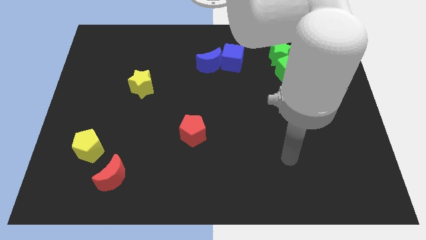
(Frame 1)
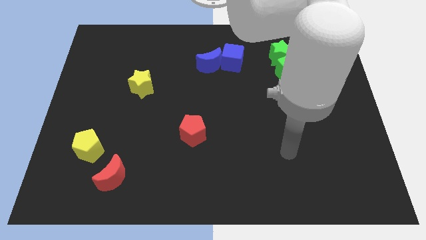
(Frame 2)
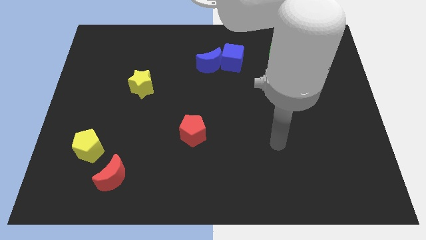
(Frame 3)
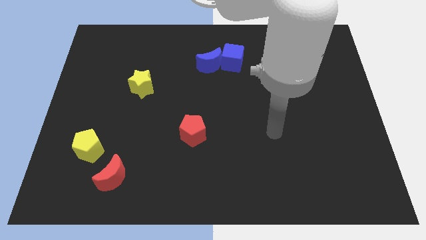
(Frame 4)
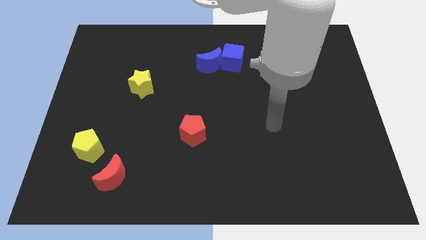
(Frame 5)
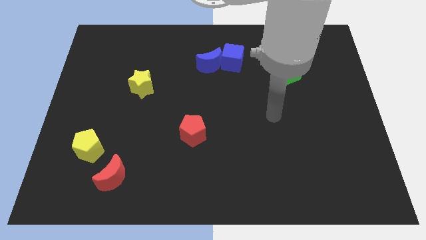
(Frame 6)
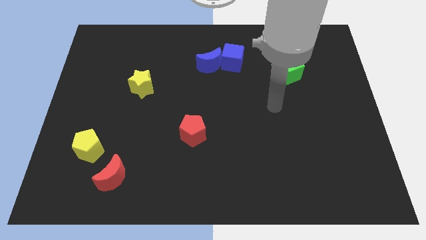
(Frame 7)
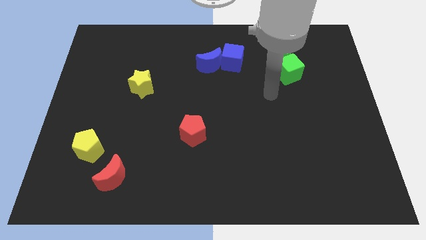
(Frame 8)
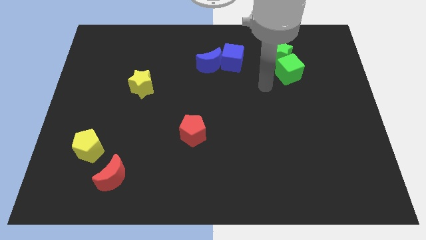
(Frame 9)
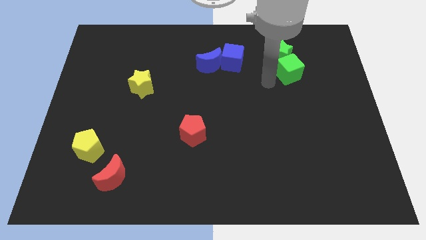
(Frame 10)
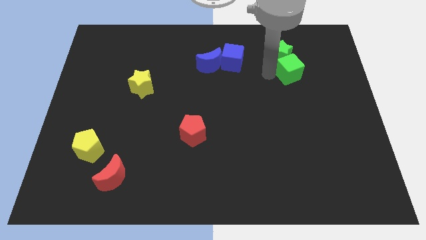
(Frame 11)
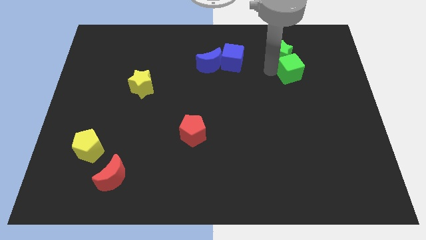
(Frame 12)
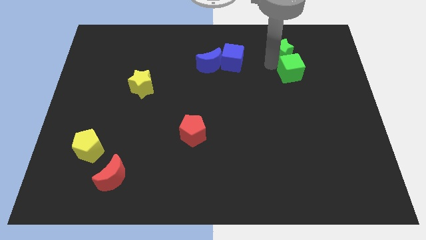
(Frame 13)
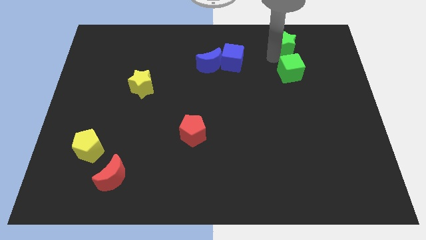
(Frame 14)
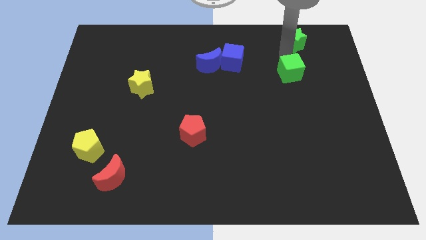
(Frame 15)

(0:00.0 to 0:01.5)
move the green cube away from the green star

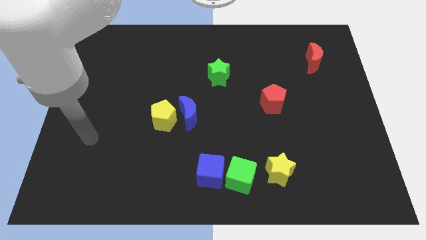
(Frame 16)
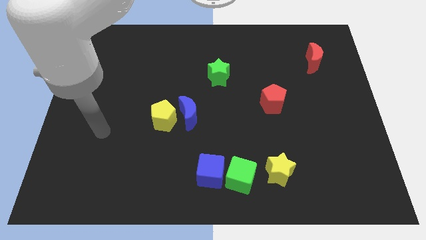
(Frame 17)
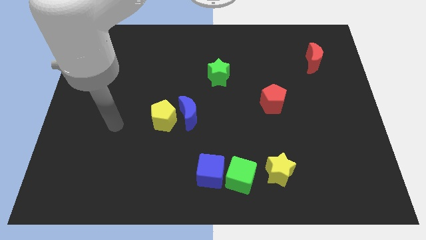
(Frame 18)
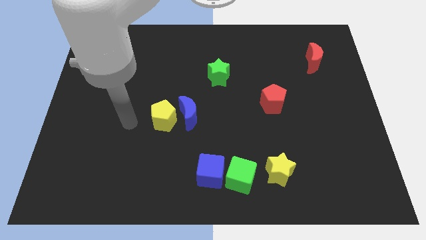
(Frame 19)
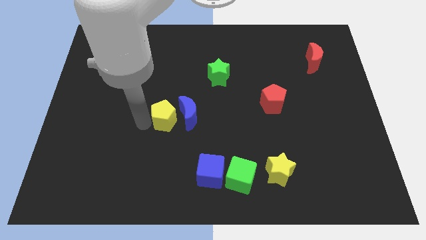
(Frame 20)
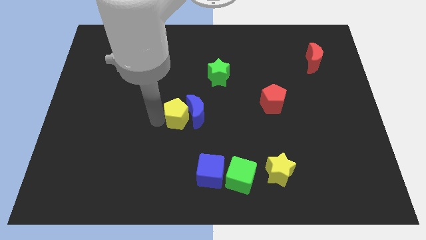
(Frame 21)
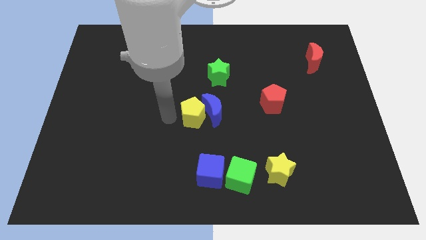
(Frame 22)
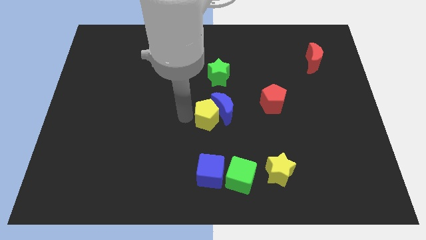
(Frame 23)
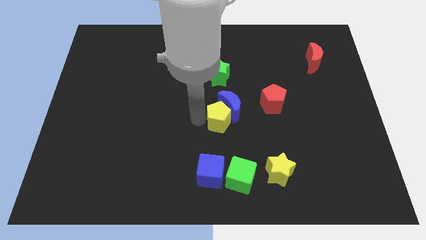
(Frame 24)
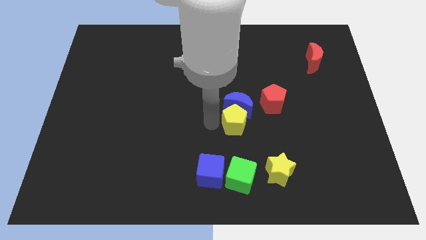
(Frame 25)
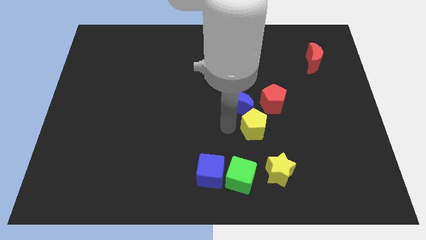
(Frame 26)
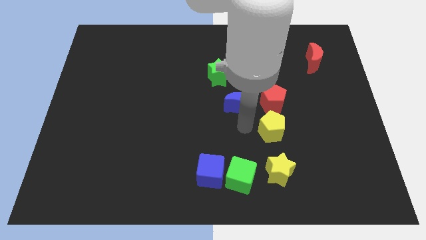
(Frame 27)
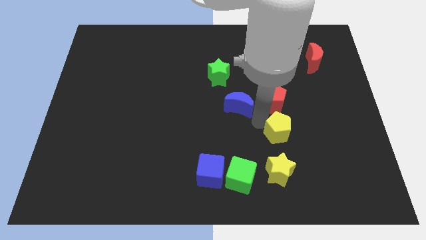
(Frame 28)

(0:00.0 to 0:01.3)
move the blue moon away from the yellow pentagon

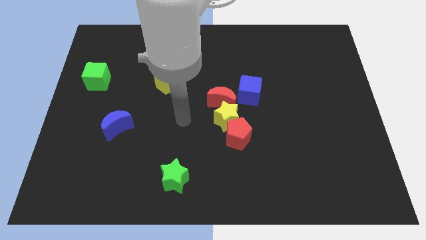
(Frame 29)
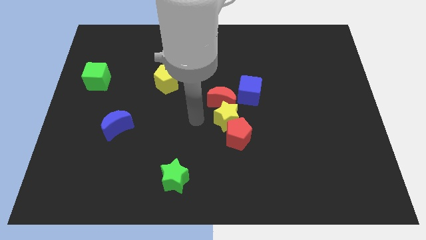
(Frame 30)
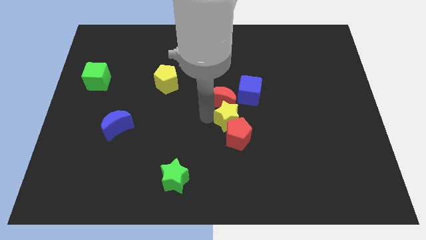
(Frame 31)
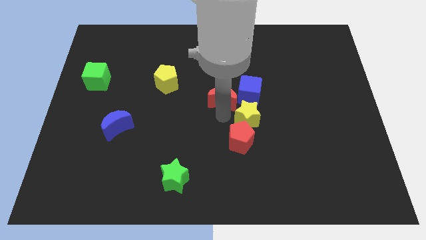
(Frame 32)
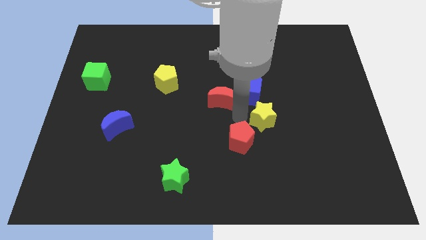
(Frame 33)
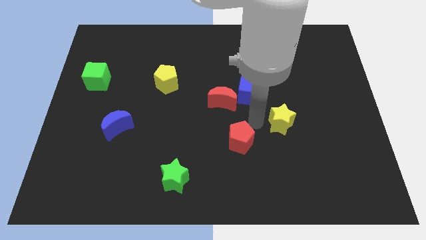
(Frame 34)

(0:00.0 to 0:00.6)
separate the red pentagon from the yellow star

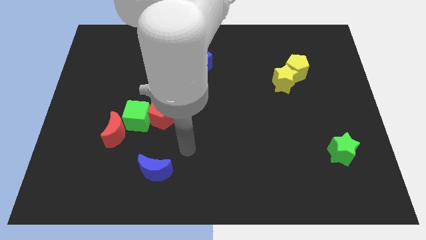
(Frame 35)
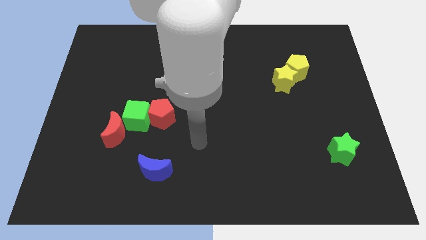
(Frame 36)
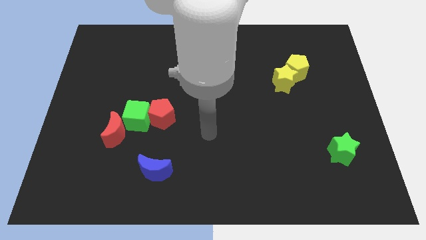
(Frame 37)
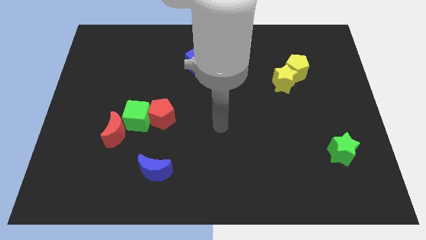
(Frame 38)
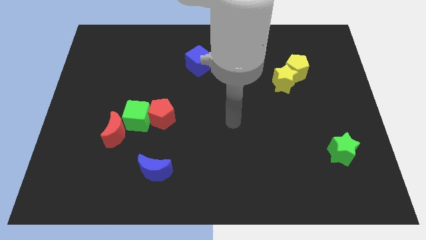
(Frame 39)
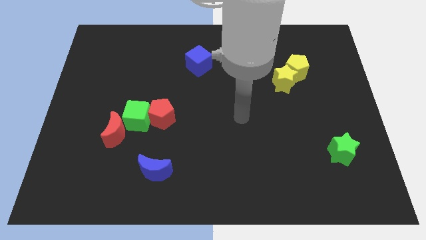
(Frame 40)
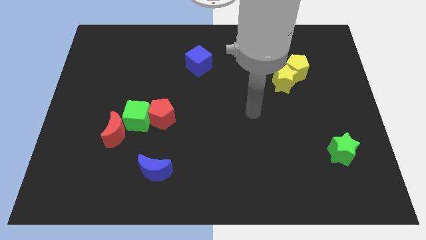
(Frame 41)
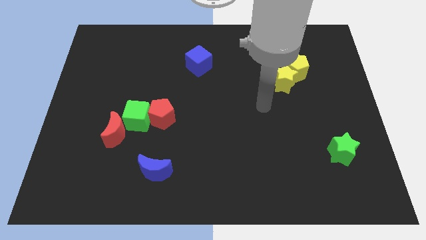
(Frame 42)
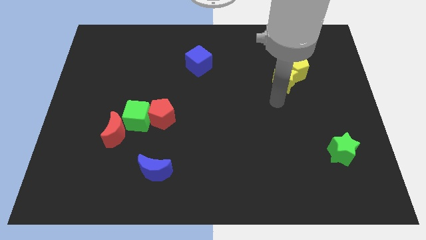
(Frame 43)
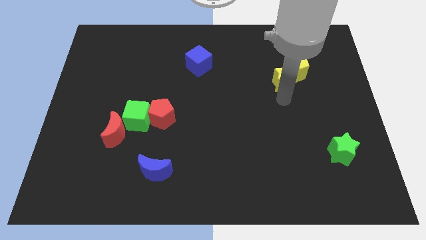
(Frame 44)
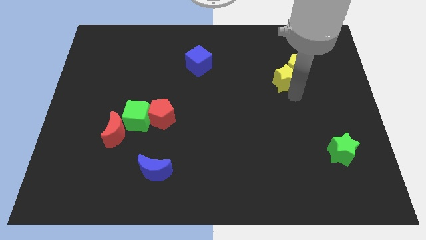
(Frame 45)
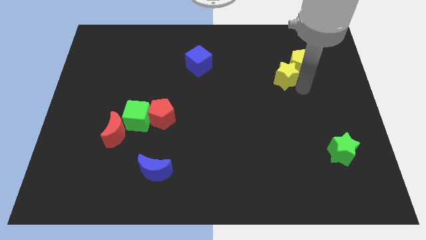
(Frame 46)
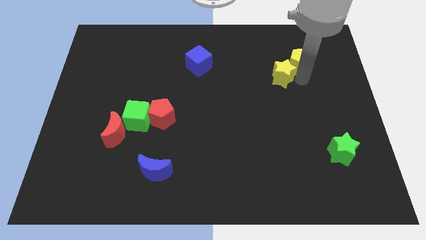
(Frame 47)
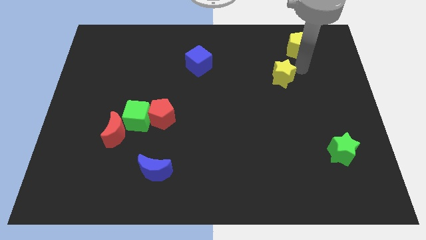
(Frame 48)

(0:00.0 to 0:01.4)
move the yellow star away from the yellow pentagon

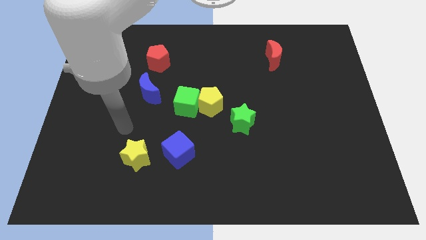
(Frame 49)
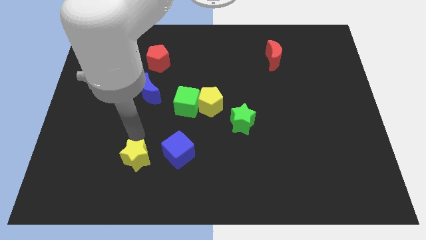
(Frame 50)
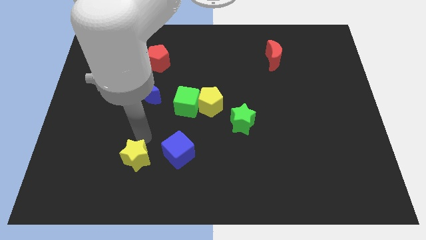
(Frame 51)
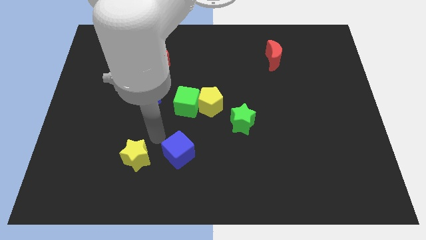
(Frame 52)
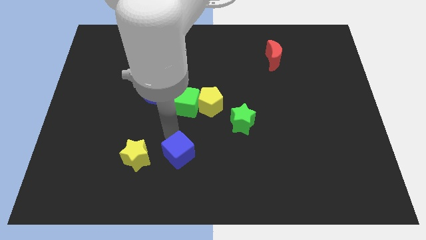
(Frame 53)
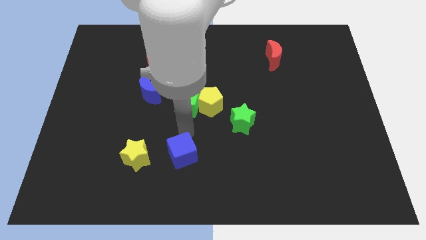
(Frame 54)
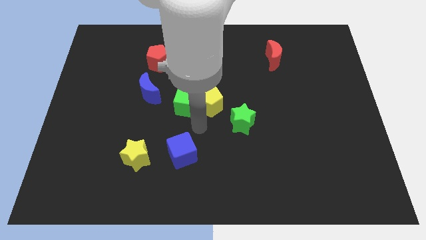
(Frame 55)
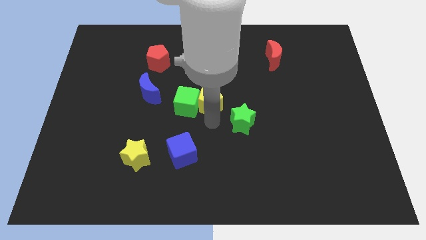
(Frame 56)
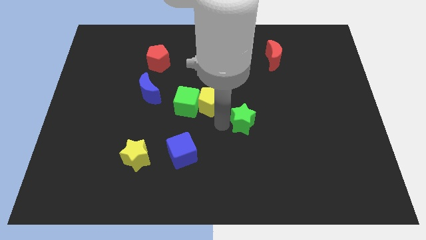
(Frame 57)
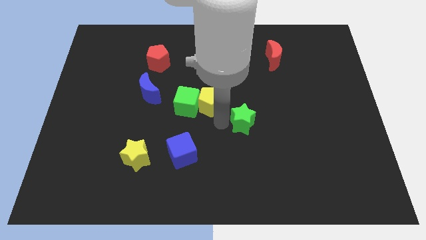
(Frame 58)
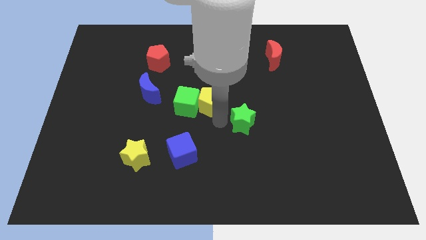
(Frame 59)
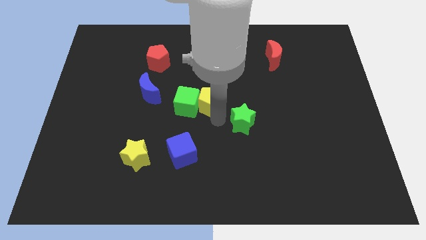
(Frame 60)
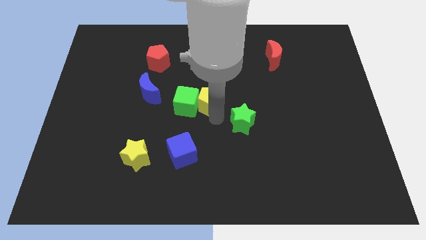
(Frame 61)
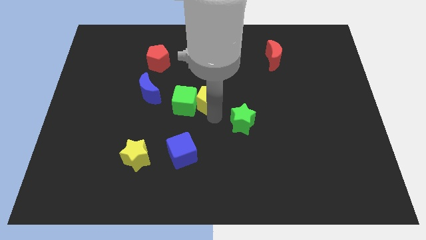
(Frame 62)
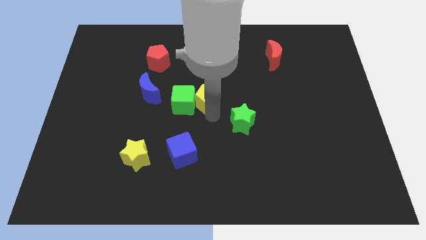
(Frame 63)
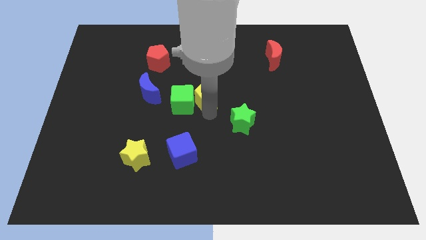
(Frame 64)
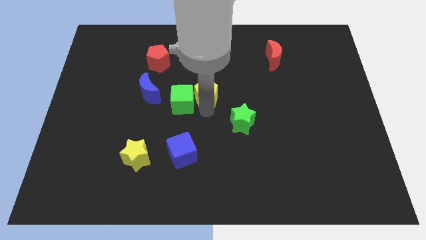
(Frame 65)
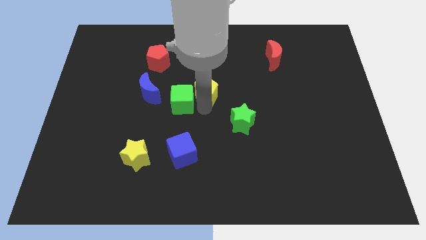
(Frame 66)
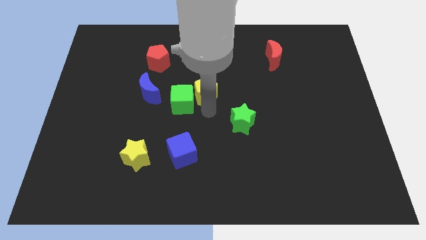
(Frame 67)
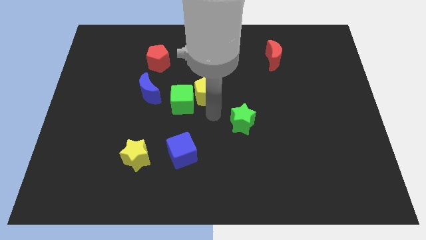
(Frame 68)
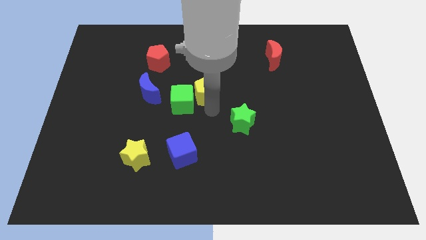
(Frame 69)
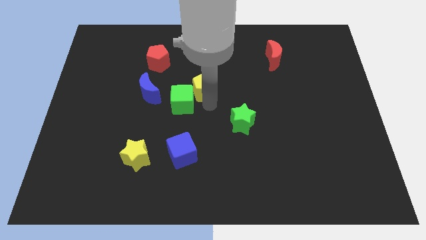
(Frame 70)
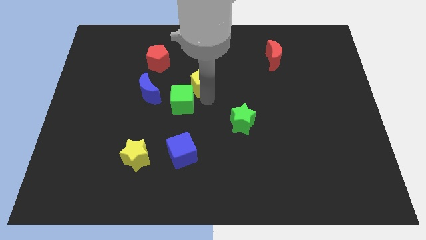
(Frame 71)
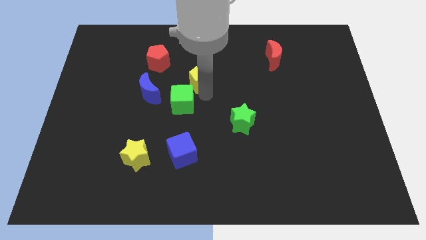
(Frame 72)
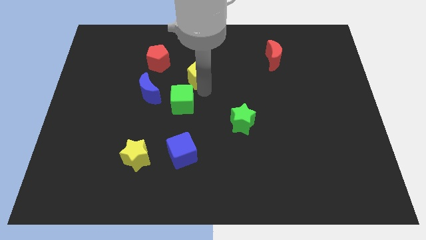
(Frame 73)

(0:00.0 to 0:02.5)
move the yellow pentagon away from the green cube and green star

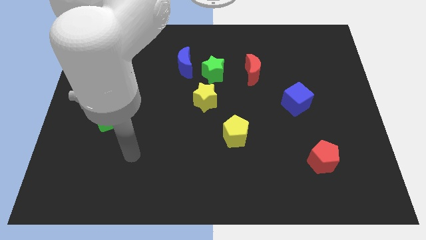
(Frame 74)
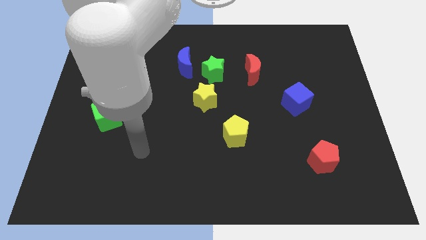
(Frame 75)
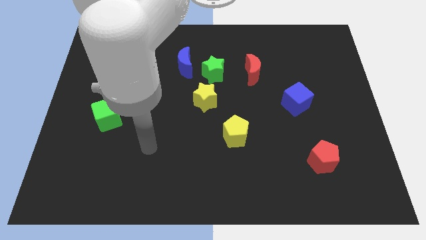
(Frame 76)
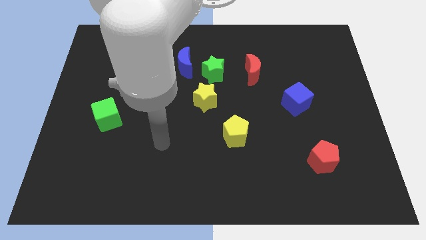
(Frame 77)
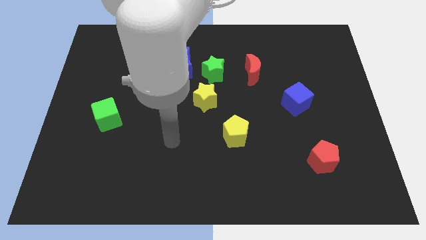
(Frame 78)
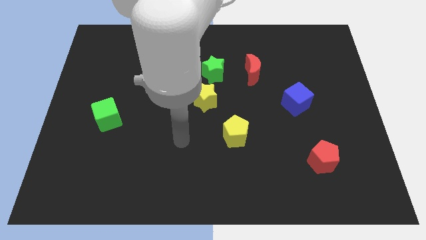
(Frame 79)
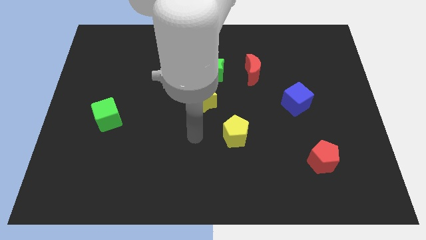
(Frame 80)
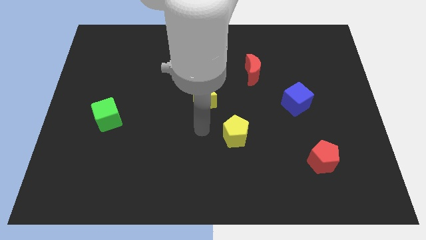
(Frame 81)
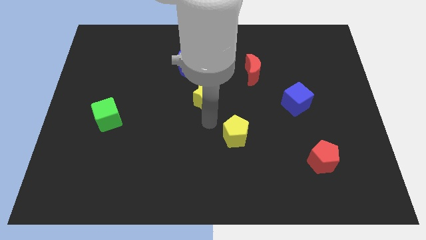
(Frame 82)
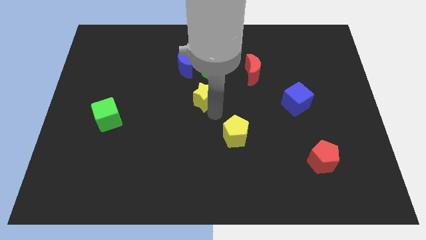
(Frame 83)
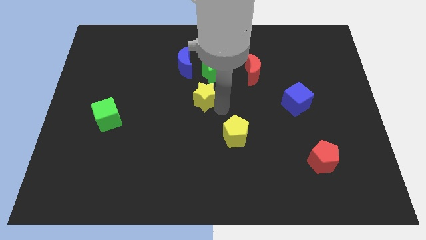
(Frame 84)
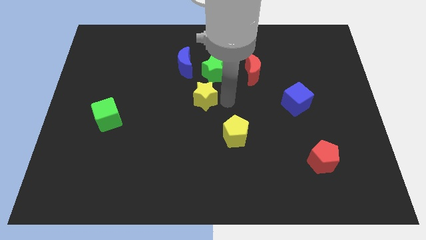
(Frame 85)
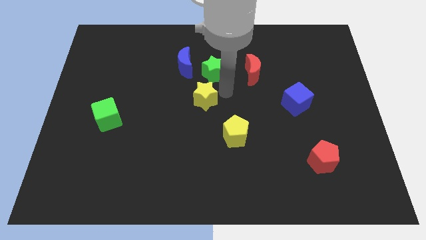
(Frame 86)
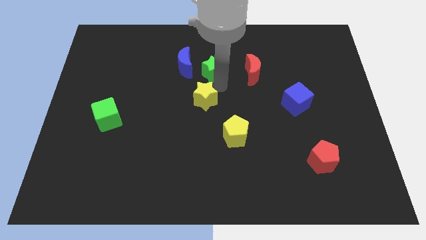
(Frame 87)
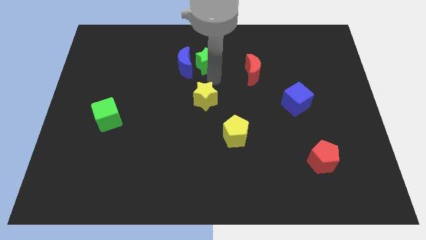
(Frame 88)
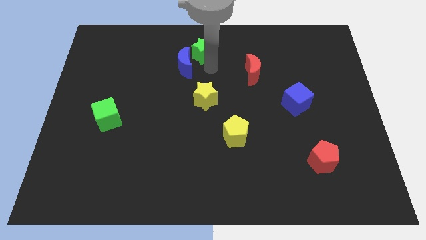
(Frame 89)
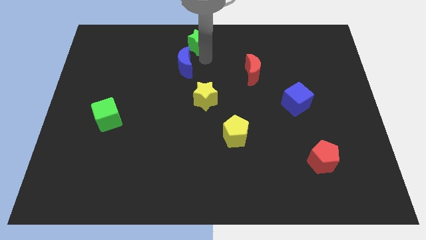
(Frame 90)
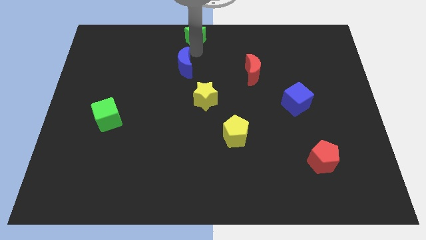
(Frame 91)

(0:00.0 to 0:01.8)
move the blue moon away from the green star

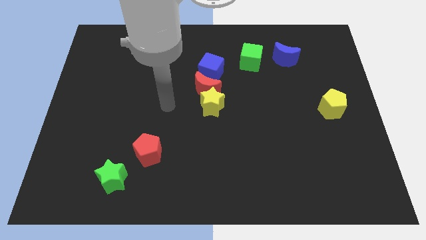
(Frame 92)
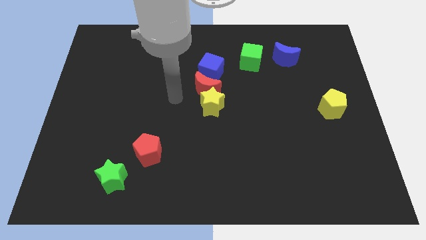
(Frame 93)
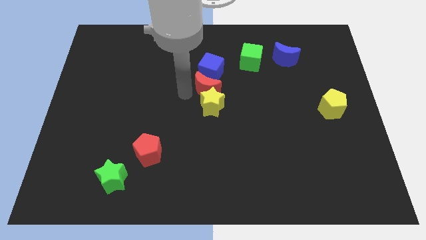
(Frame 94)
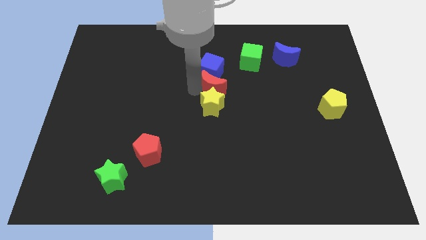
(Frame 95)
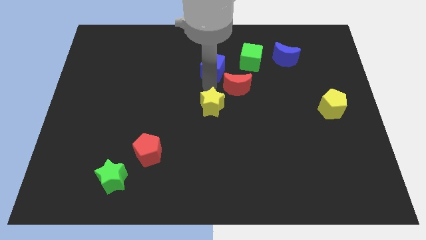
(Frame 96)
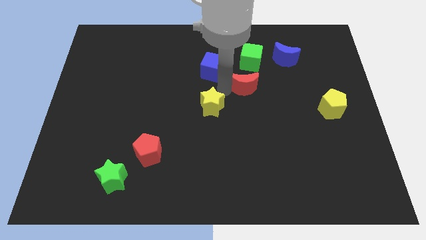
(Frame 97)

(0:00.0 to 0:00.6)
separate the yellow star from the red moon
